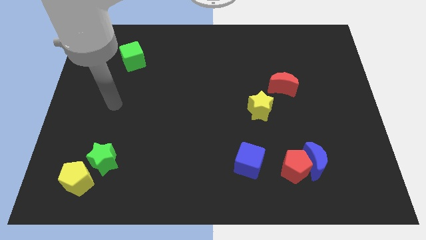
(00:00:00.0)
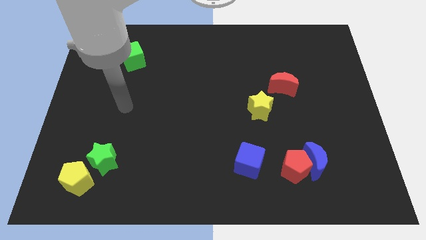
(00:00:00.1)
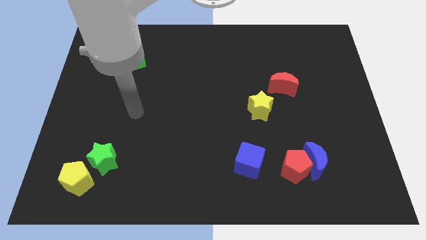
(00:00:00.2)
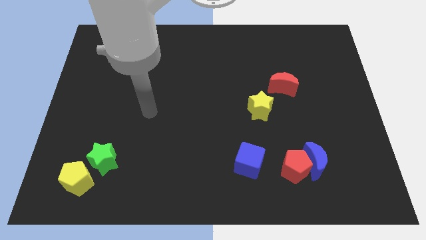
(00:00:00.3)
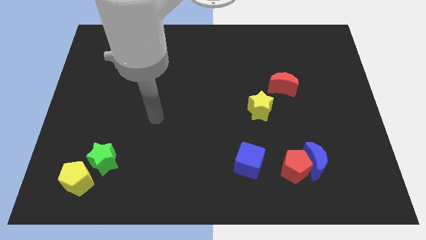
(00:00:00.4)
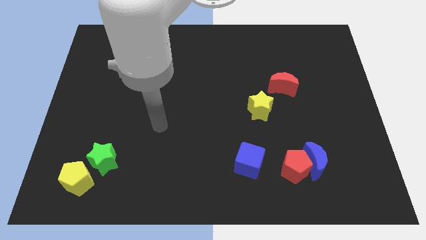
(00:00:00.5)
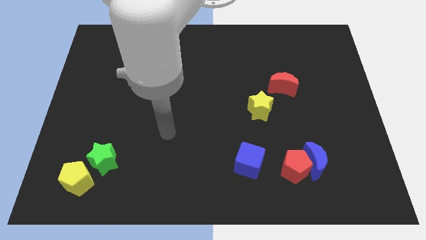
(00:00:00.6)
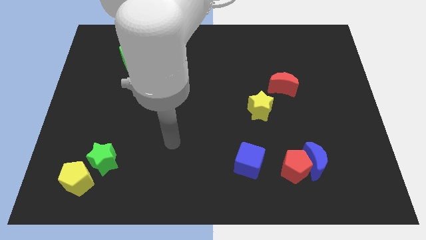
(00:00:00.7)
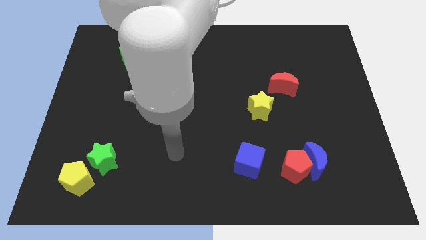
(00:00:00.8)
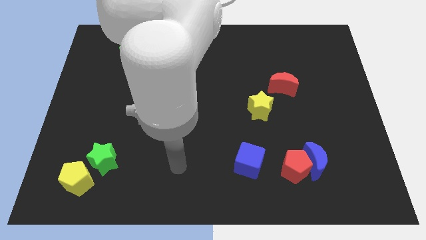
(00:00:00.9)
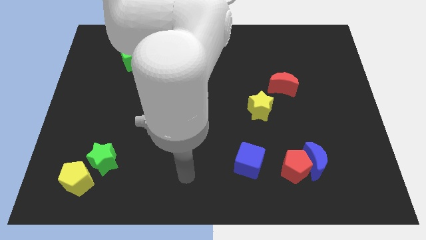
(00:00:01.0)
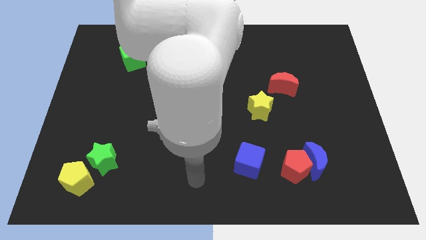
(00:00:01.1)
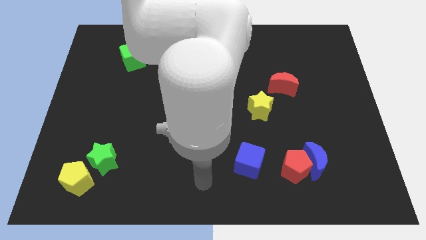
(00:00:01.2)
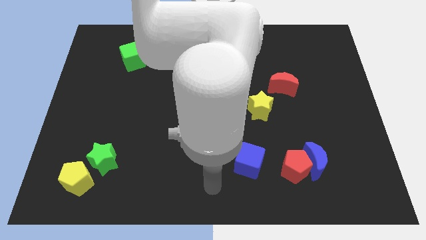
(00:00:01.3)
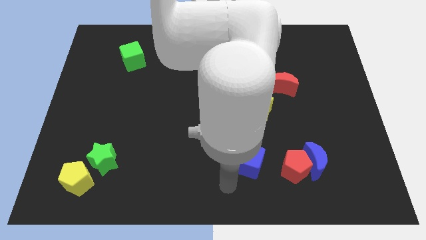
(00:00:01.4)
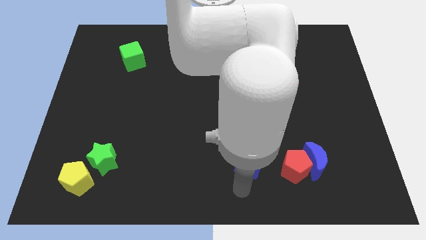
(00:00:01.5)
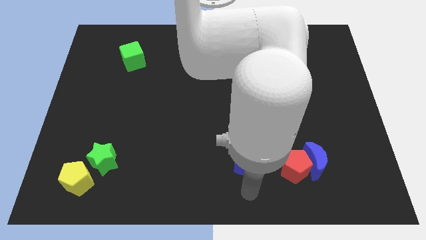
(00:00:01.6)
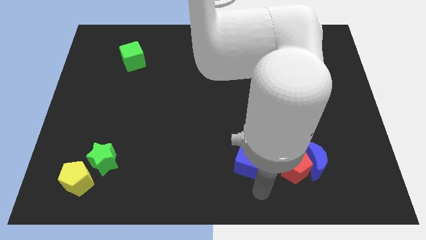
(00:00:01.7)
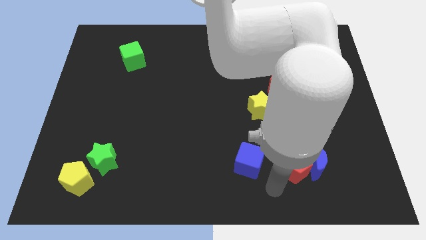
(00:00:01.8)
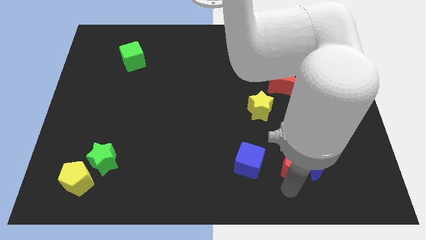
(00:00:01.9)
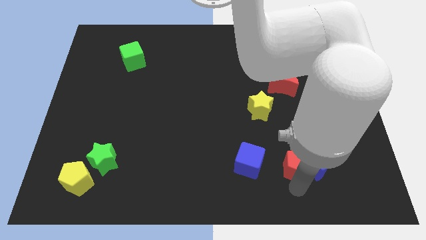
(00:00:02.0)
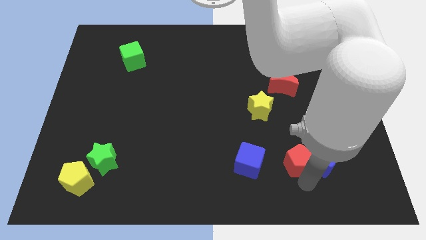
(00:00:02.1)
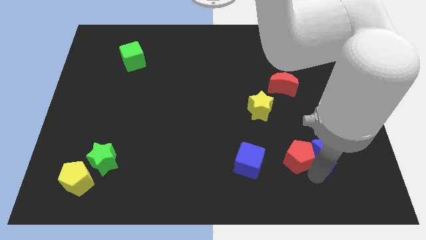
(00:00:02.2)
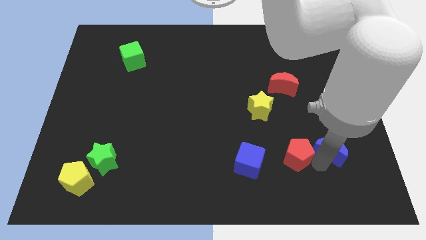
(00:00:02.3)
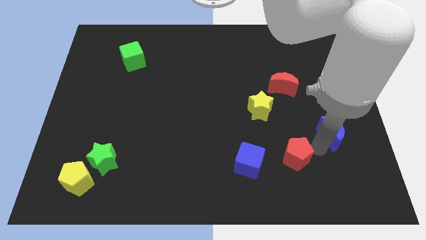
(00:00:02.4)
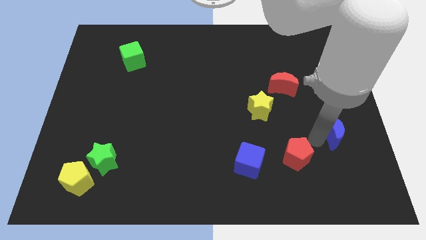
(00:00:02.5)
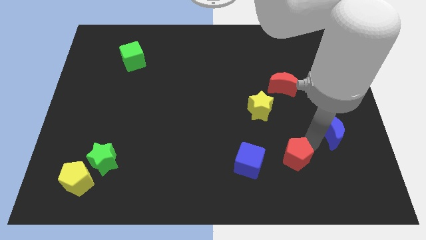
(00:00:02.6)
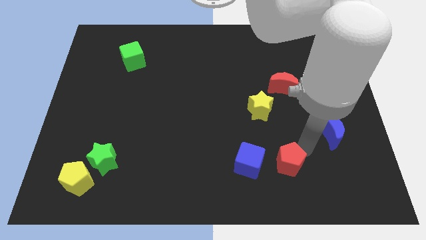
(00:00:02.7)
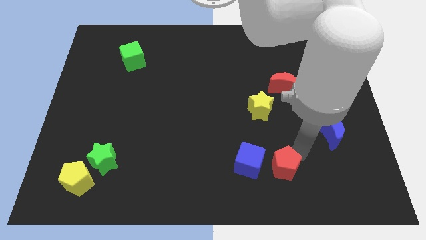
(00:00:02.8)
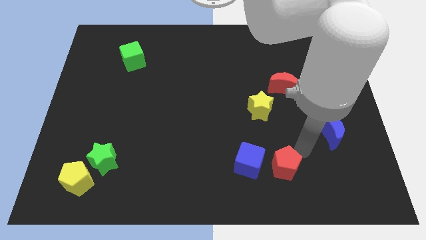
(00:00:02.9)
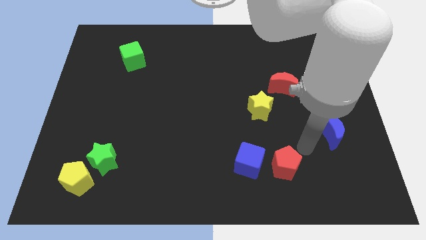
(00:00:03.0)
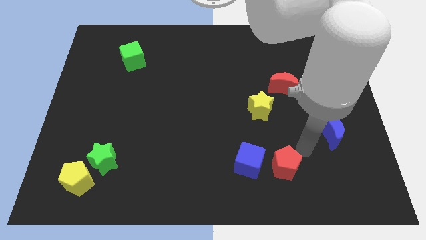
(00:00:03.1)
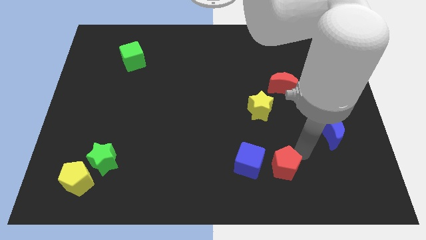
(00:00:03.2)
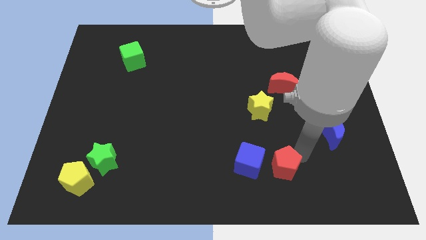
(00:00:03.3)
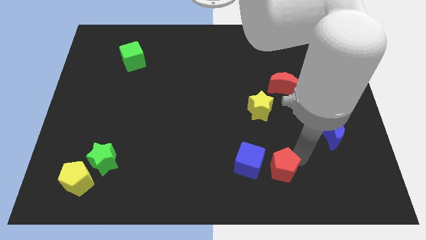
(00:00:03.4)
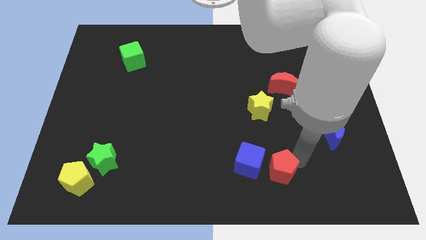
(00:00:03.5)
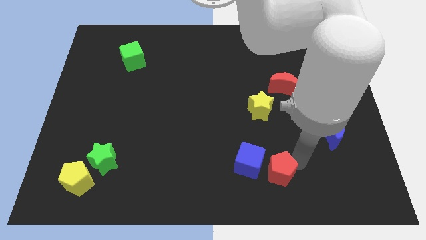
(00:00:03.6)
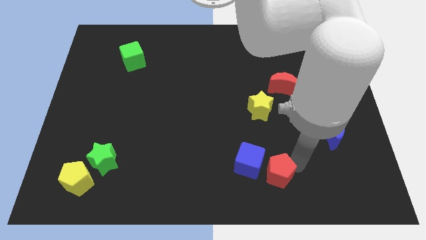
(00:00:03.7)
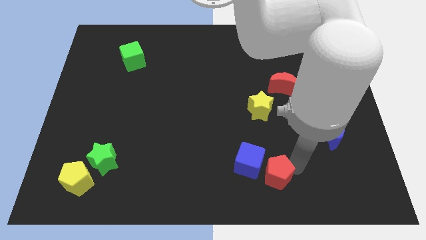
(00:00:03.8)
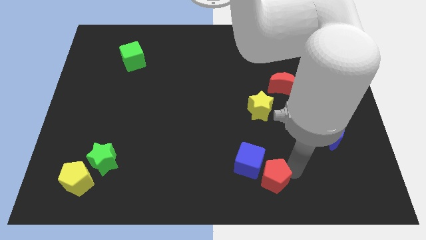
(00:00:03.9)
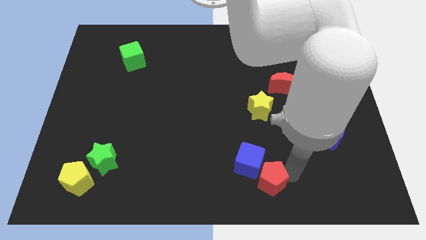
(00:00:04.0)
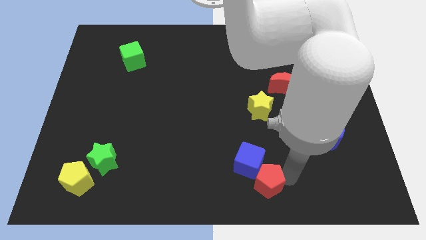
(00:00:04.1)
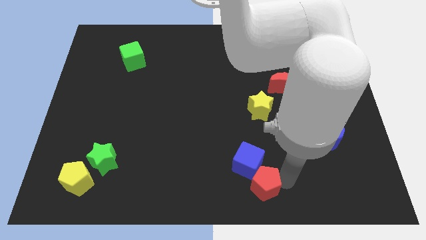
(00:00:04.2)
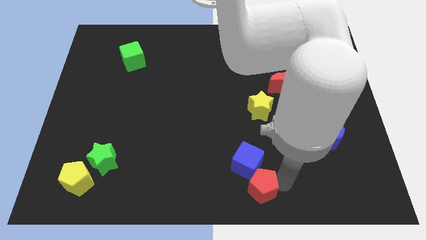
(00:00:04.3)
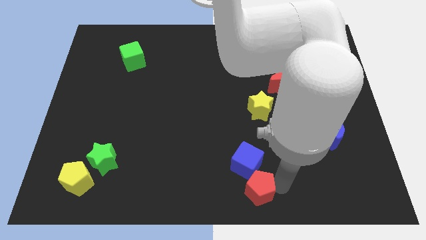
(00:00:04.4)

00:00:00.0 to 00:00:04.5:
slightly push the red pentagon left

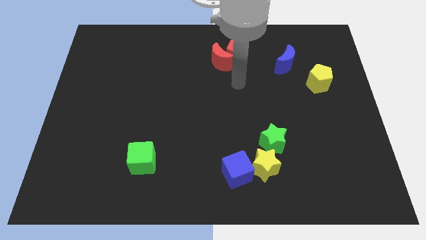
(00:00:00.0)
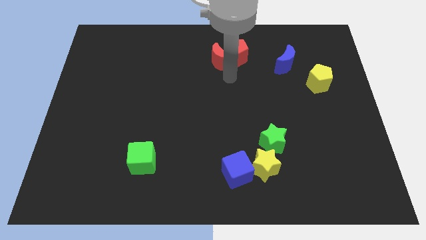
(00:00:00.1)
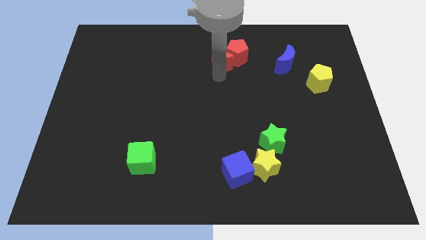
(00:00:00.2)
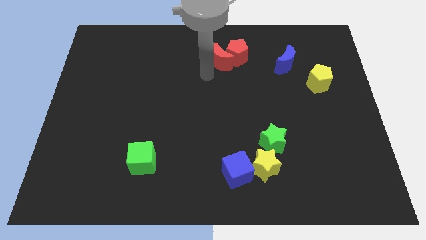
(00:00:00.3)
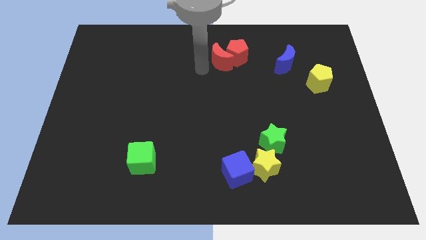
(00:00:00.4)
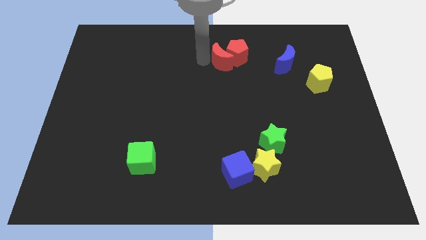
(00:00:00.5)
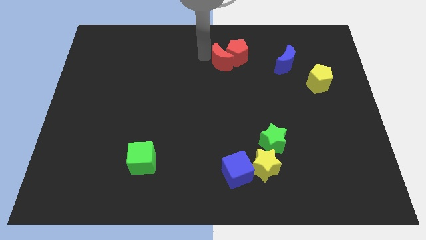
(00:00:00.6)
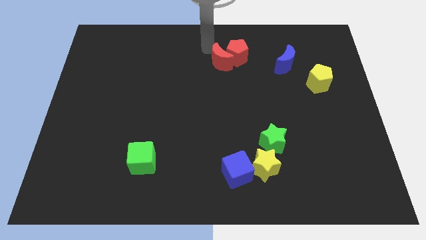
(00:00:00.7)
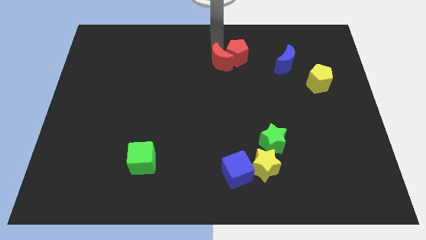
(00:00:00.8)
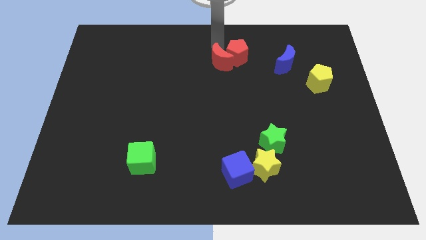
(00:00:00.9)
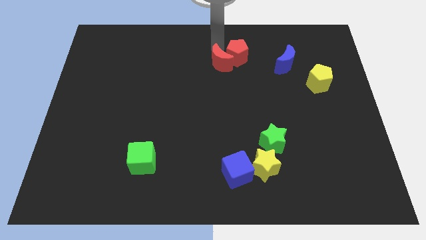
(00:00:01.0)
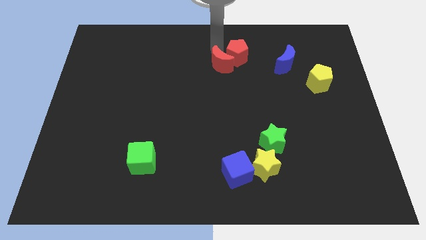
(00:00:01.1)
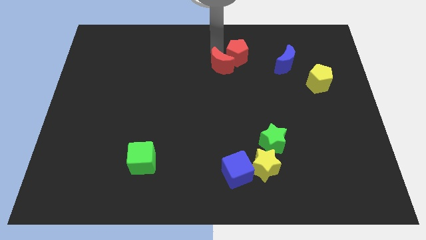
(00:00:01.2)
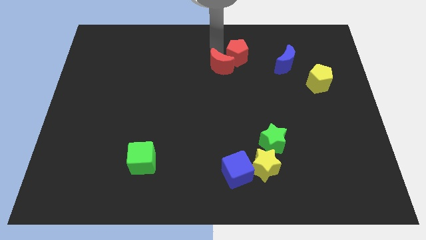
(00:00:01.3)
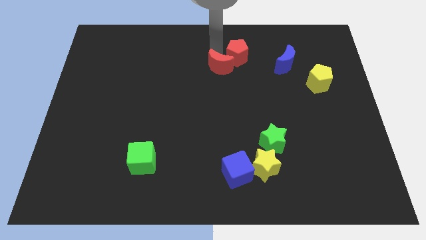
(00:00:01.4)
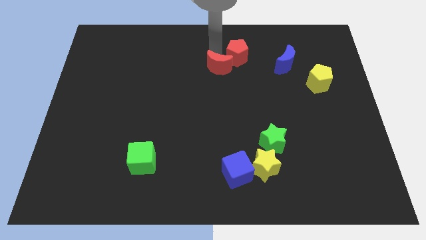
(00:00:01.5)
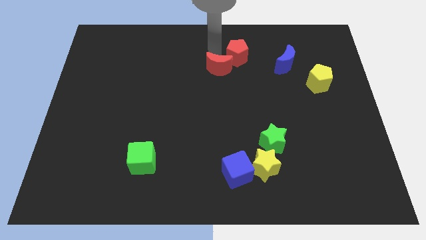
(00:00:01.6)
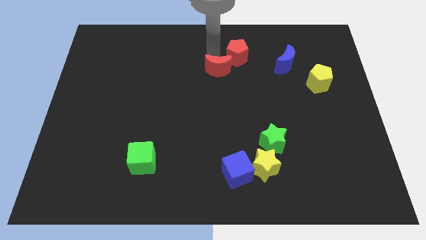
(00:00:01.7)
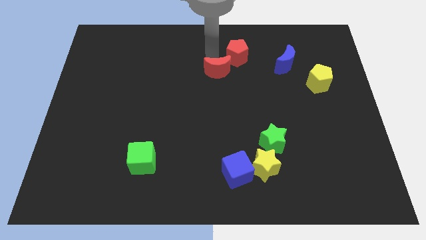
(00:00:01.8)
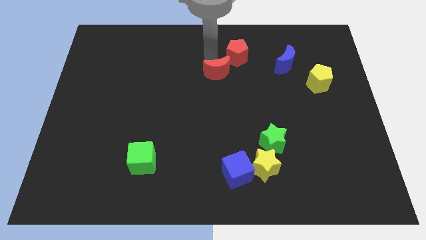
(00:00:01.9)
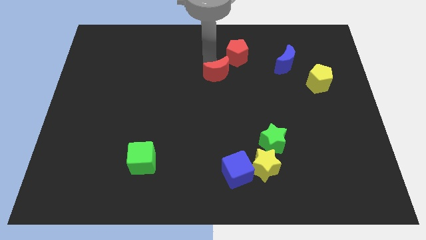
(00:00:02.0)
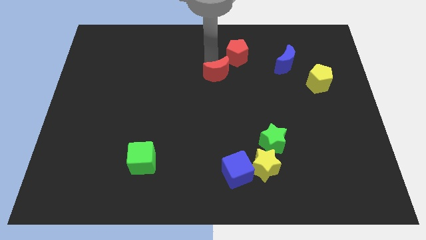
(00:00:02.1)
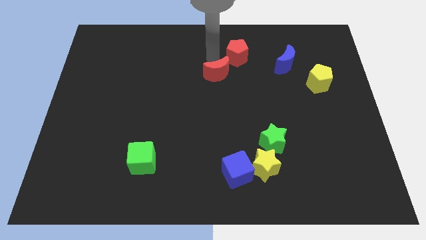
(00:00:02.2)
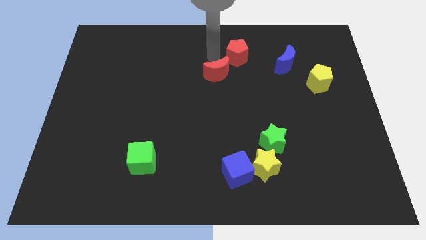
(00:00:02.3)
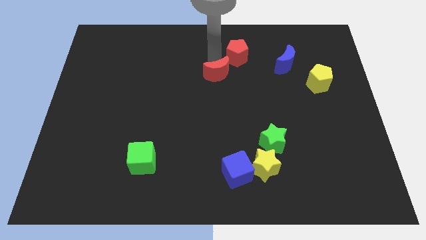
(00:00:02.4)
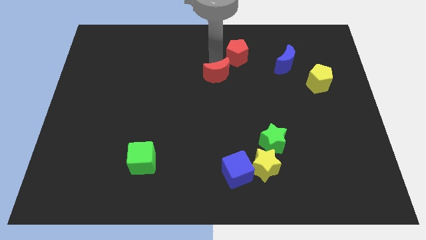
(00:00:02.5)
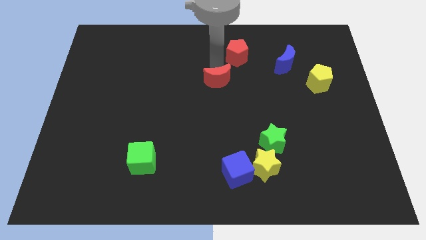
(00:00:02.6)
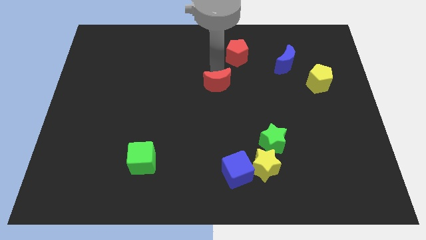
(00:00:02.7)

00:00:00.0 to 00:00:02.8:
push the red moon a bit down

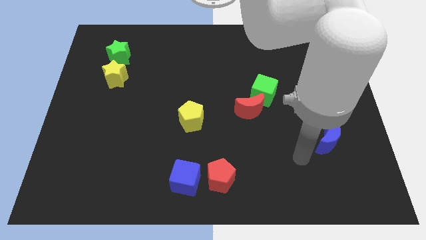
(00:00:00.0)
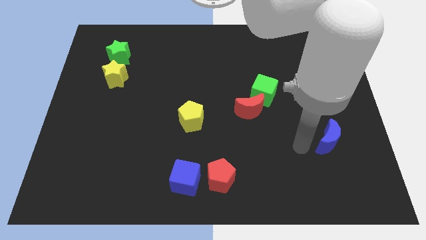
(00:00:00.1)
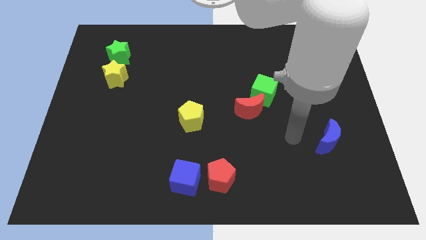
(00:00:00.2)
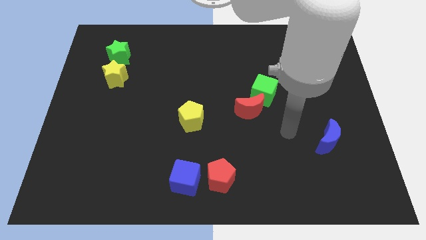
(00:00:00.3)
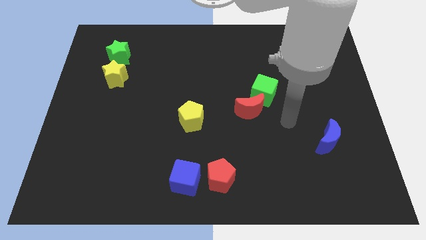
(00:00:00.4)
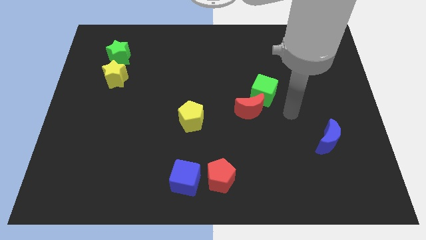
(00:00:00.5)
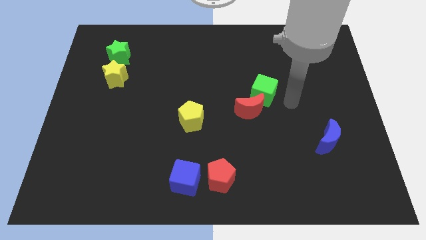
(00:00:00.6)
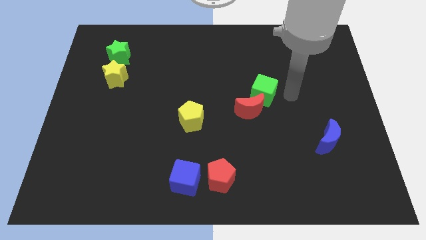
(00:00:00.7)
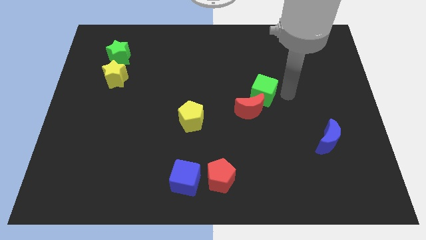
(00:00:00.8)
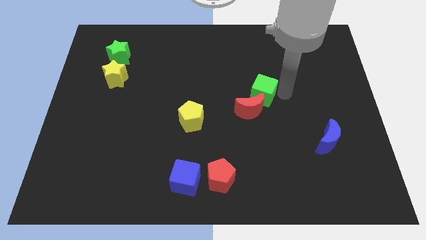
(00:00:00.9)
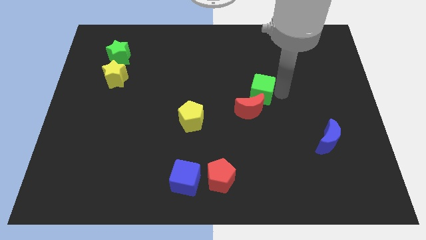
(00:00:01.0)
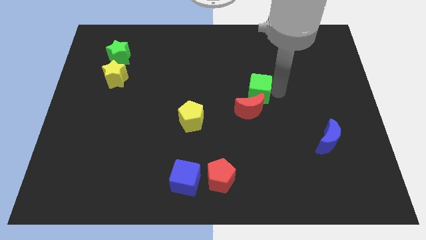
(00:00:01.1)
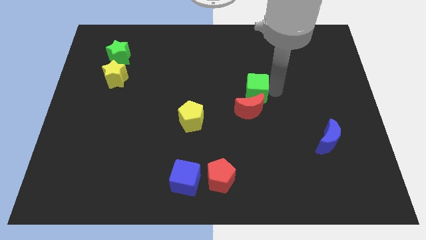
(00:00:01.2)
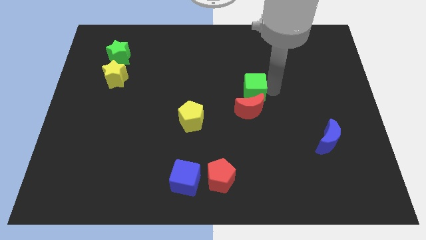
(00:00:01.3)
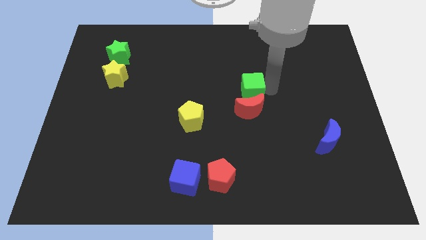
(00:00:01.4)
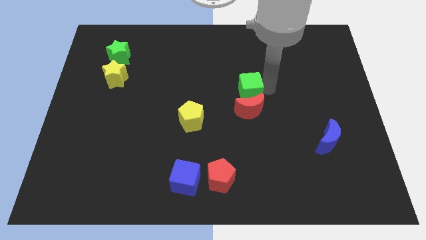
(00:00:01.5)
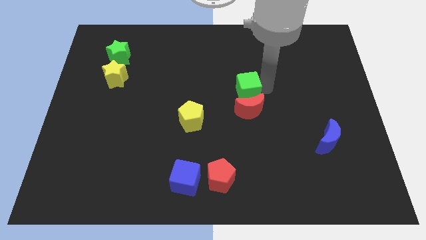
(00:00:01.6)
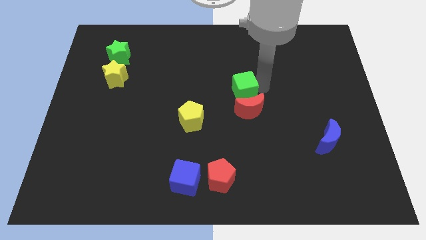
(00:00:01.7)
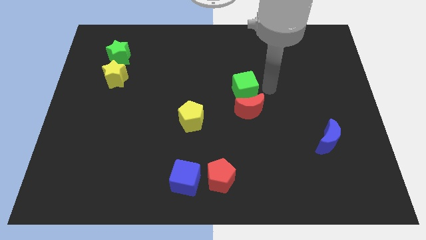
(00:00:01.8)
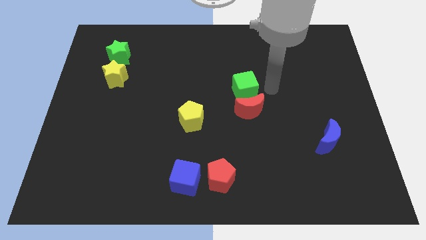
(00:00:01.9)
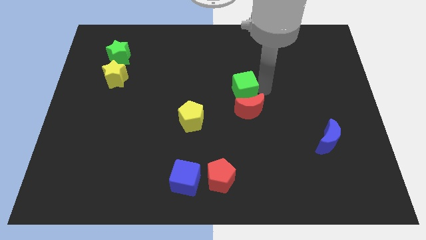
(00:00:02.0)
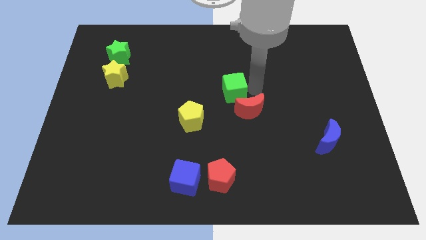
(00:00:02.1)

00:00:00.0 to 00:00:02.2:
slide the green cube to the left a little
